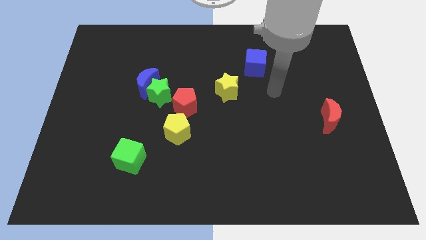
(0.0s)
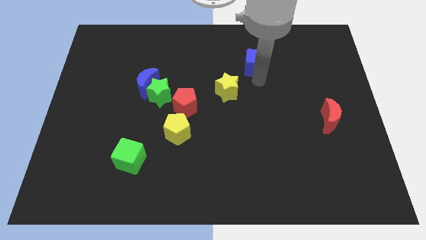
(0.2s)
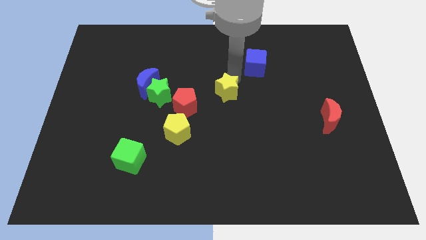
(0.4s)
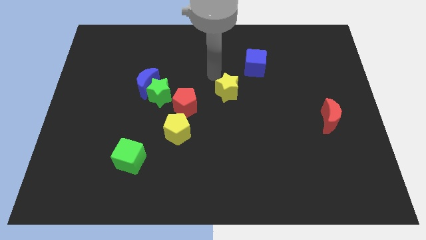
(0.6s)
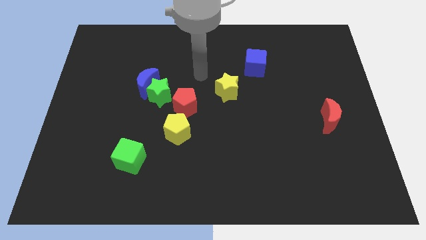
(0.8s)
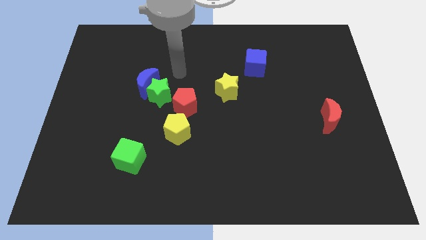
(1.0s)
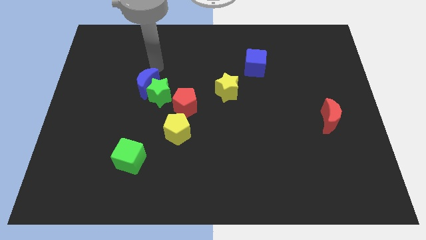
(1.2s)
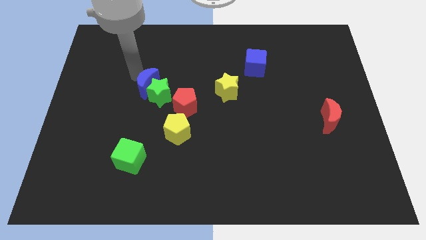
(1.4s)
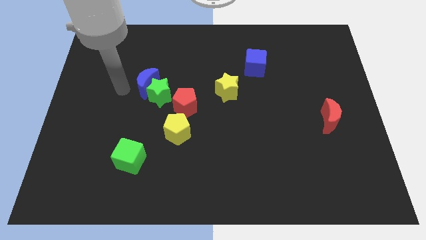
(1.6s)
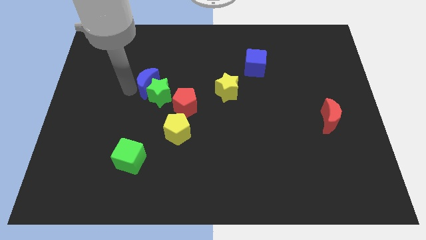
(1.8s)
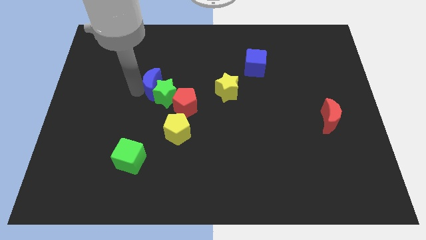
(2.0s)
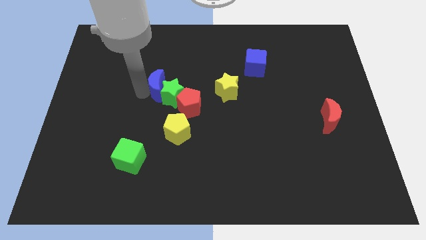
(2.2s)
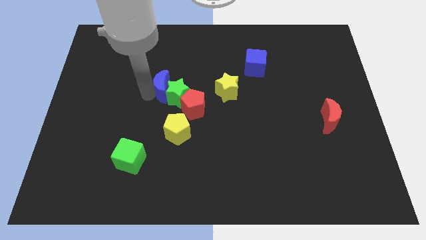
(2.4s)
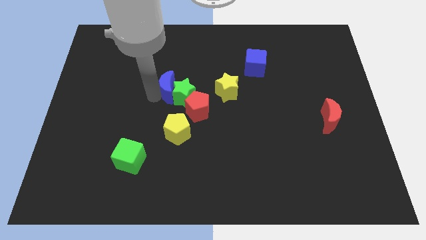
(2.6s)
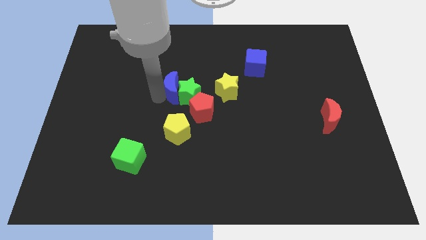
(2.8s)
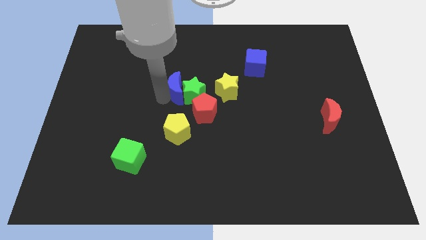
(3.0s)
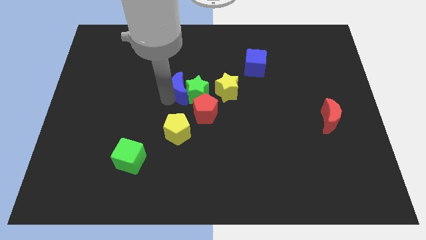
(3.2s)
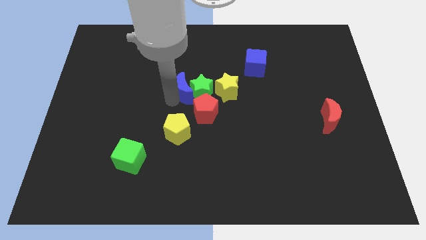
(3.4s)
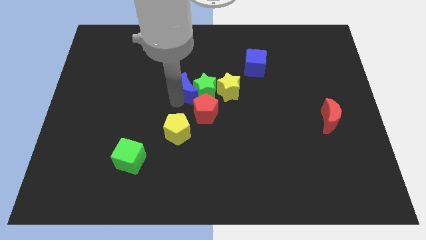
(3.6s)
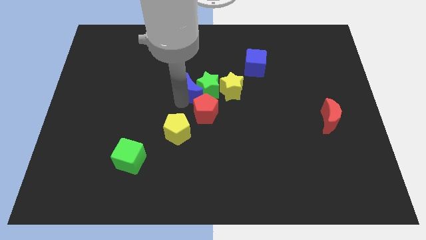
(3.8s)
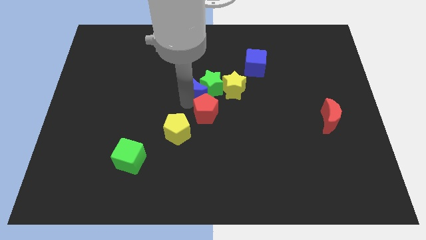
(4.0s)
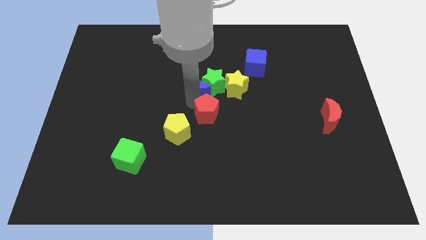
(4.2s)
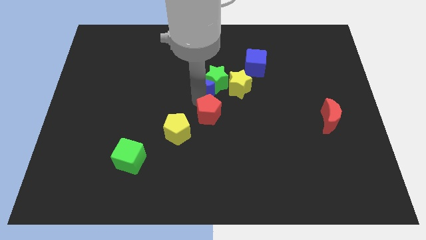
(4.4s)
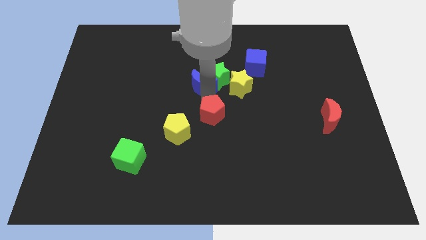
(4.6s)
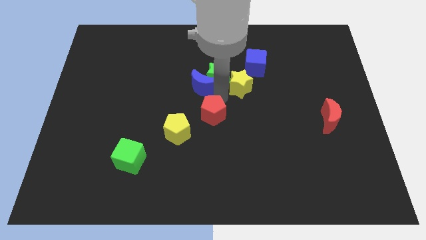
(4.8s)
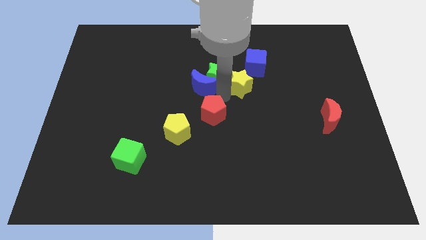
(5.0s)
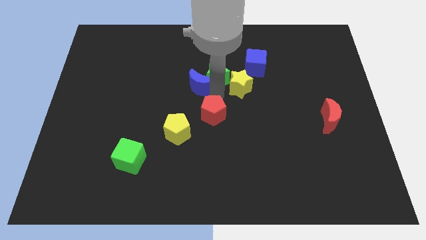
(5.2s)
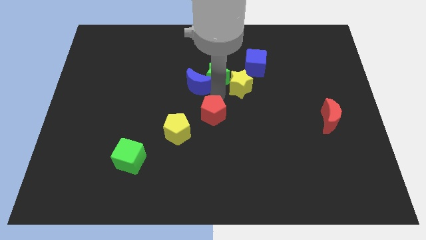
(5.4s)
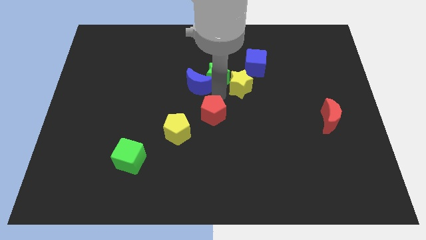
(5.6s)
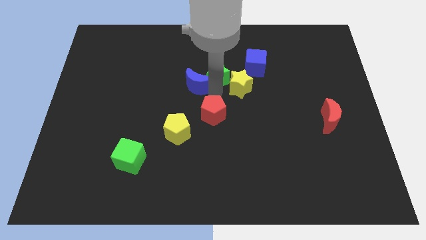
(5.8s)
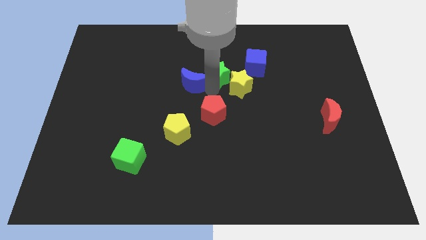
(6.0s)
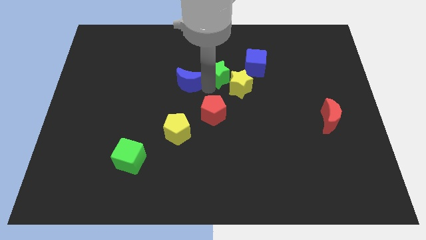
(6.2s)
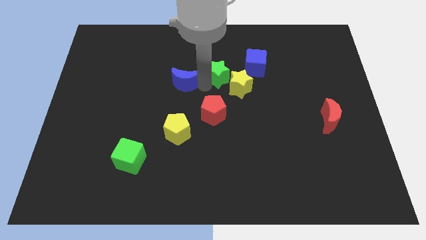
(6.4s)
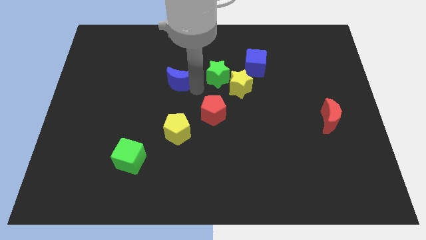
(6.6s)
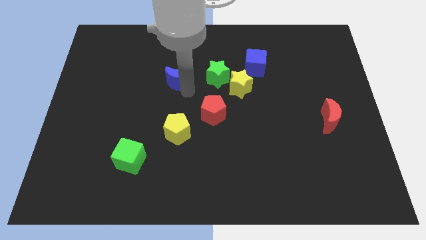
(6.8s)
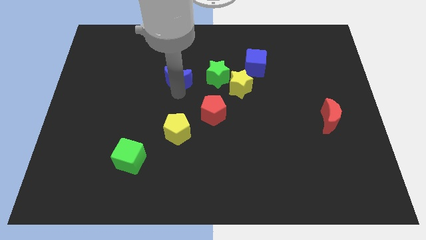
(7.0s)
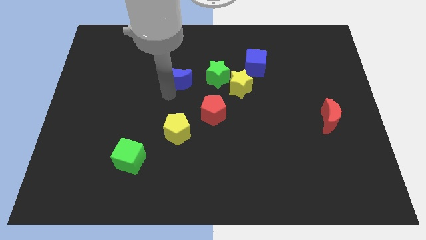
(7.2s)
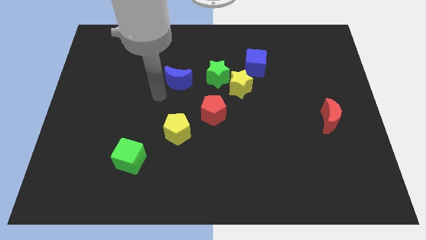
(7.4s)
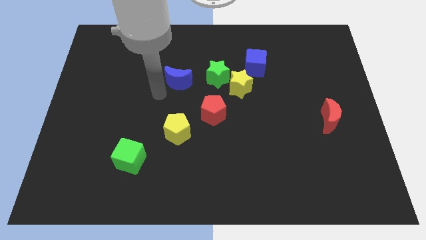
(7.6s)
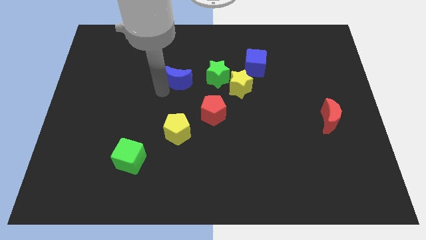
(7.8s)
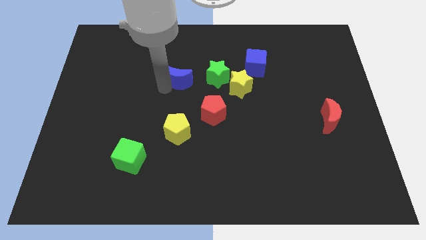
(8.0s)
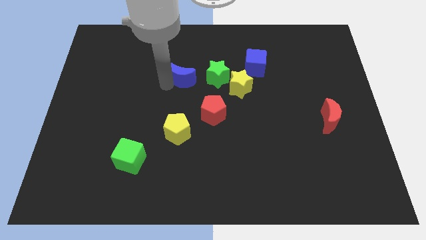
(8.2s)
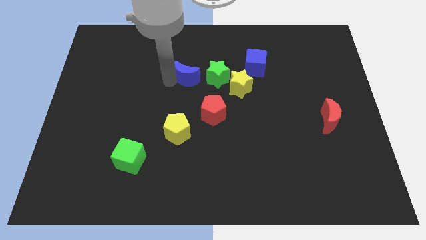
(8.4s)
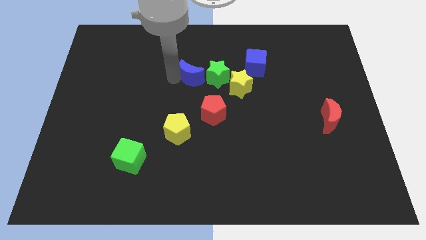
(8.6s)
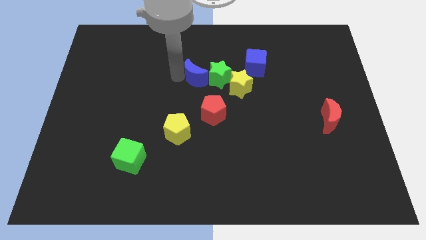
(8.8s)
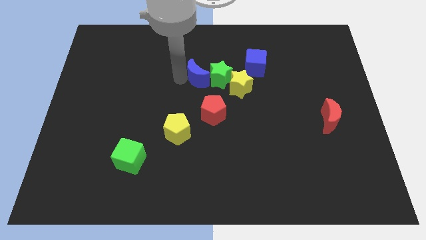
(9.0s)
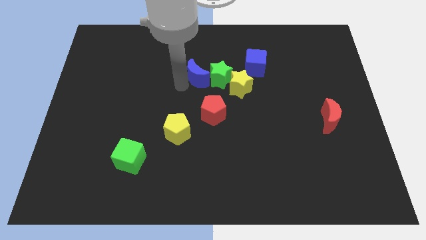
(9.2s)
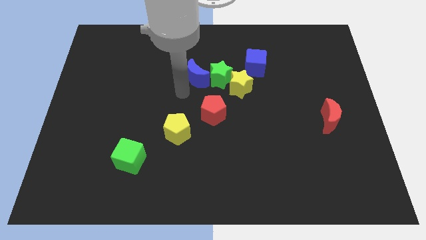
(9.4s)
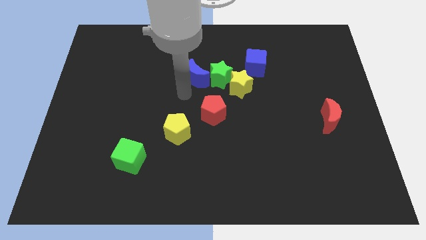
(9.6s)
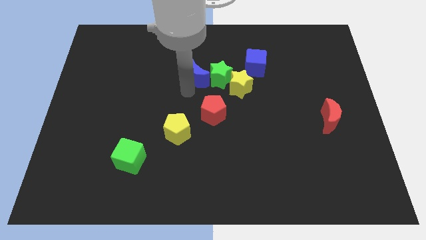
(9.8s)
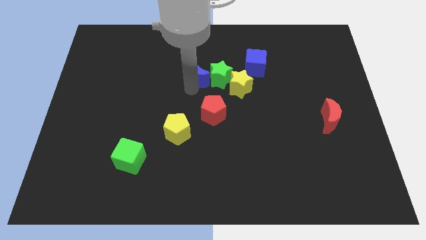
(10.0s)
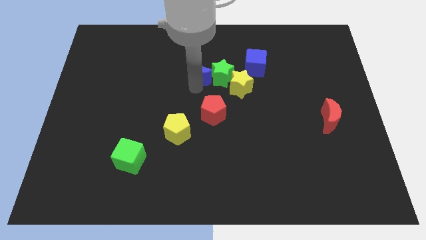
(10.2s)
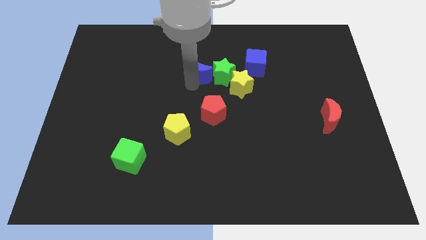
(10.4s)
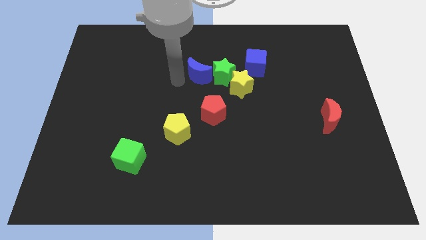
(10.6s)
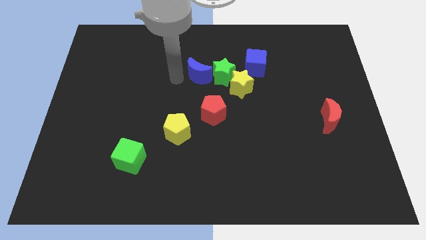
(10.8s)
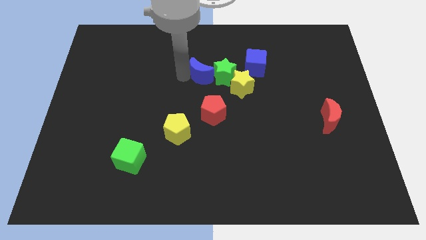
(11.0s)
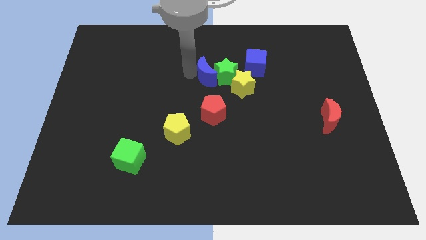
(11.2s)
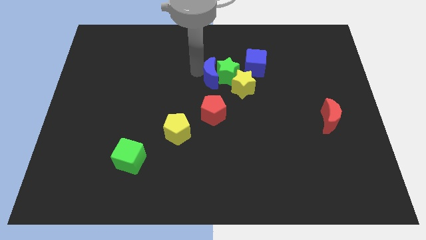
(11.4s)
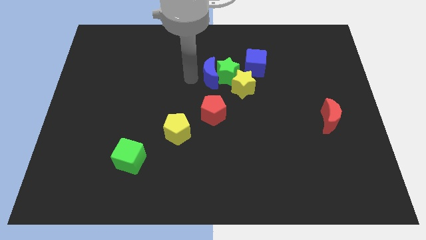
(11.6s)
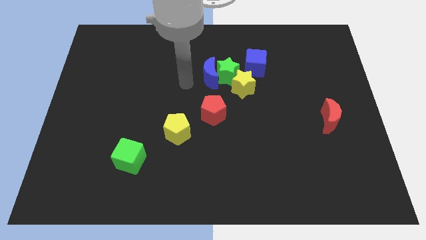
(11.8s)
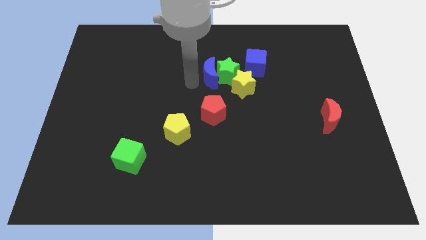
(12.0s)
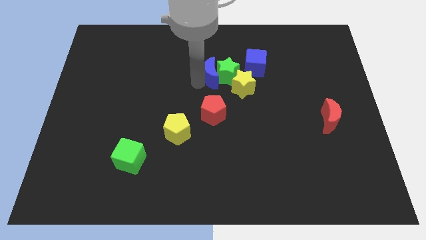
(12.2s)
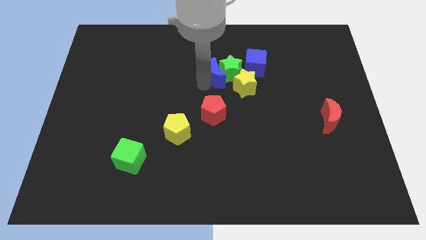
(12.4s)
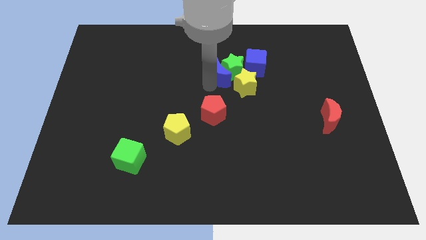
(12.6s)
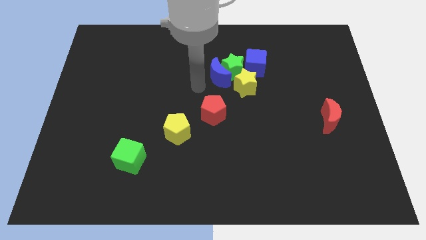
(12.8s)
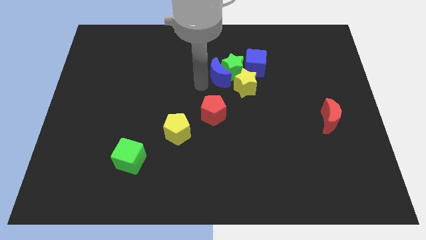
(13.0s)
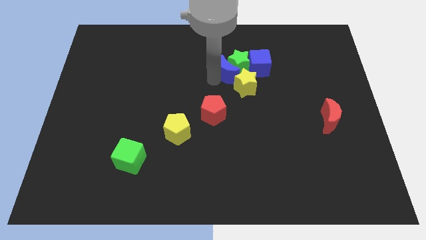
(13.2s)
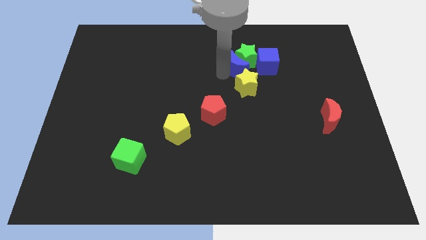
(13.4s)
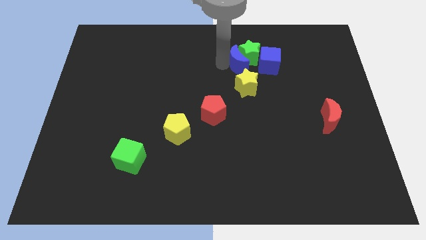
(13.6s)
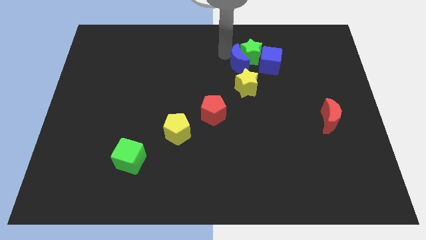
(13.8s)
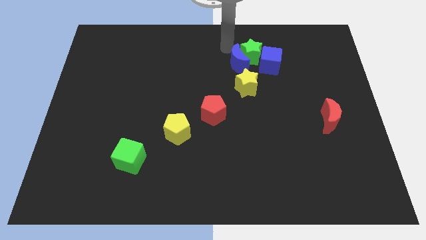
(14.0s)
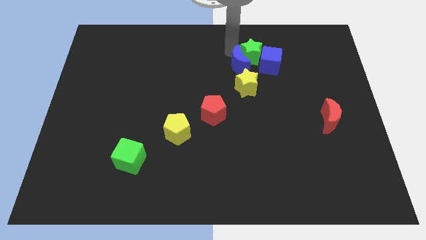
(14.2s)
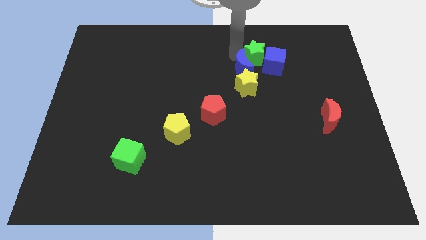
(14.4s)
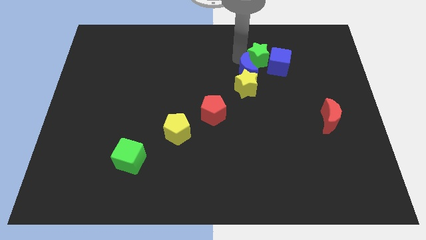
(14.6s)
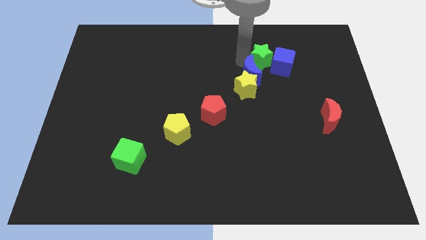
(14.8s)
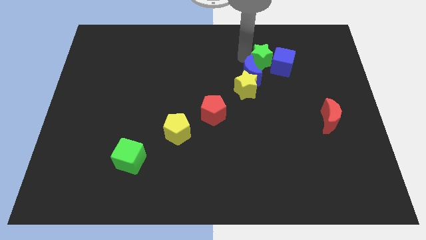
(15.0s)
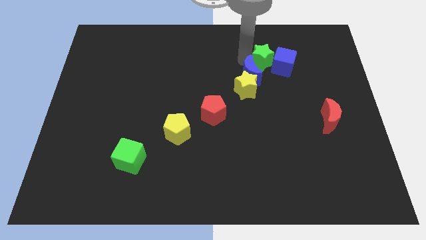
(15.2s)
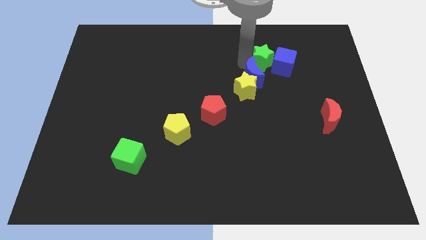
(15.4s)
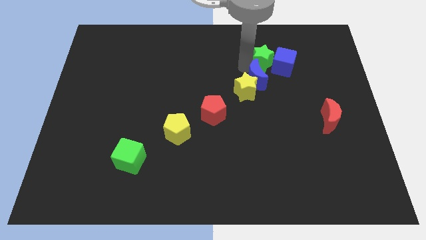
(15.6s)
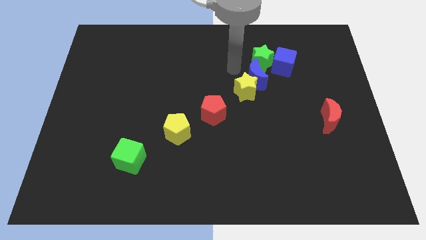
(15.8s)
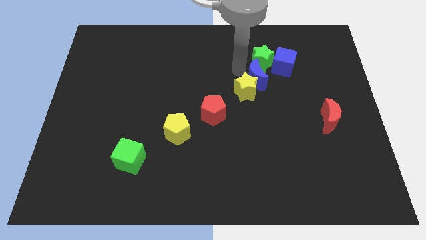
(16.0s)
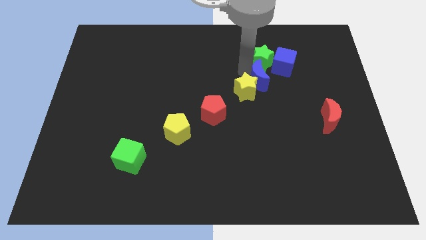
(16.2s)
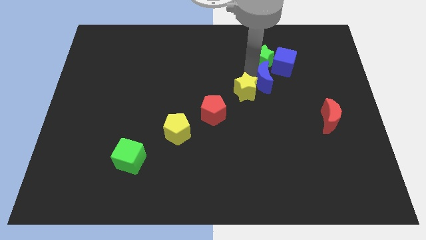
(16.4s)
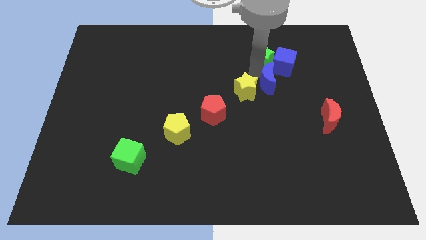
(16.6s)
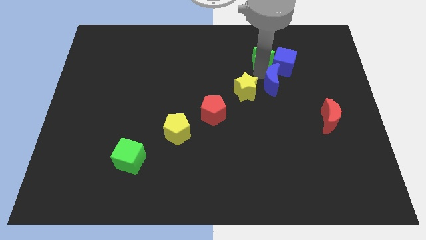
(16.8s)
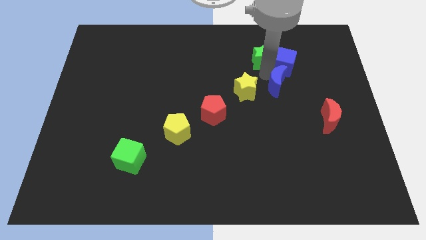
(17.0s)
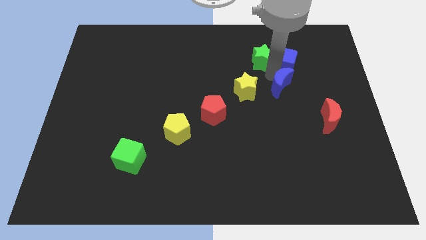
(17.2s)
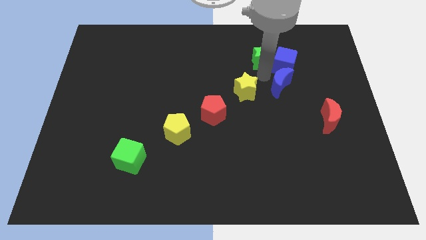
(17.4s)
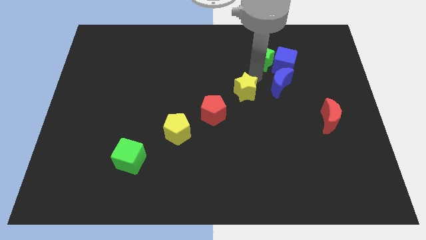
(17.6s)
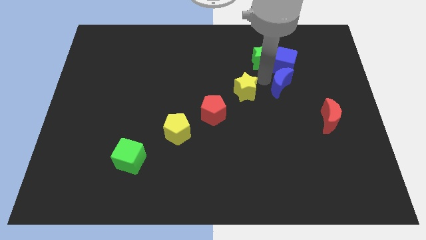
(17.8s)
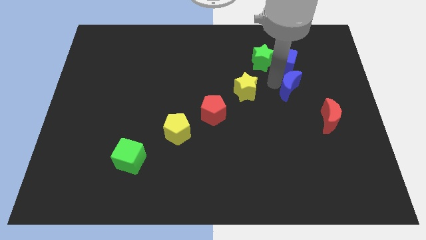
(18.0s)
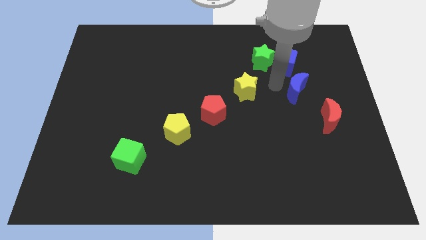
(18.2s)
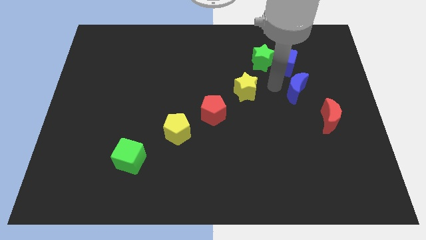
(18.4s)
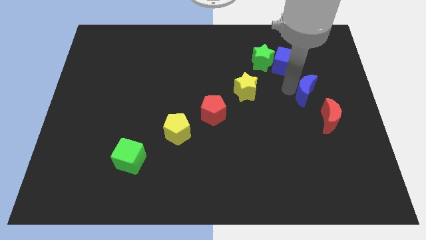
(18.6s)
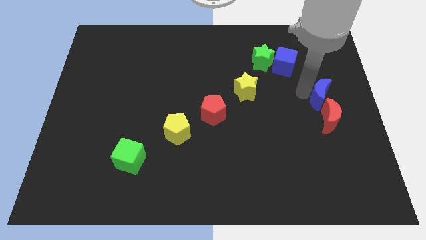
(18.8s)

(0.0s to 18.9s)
slide the blue moon to the center right
